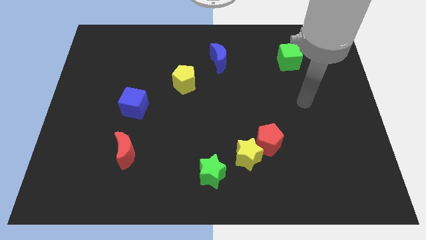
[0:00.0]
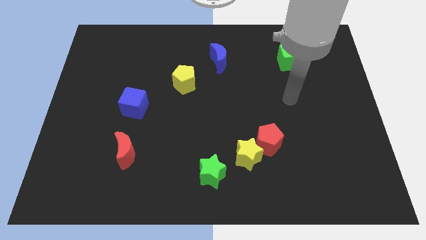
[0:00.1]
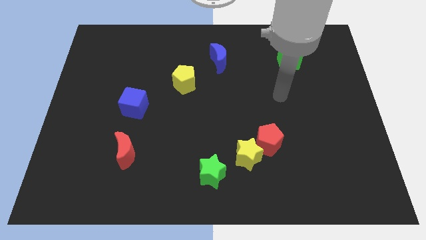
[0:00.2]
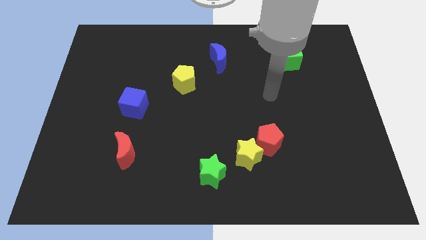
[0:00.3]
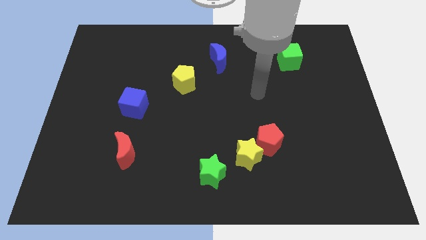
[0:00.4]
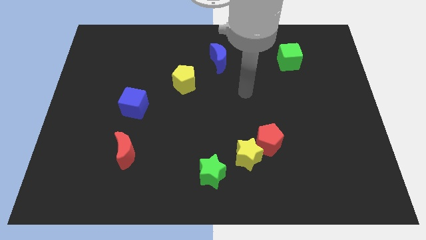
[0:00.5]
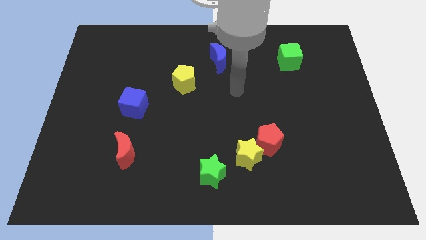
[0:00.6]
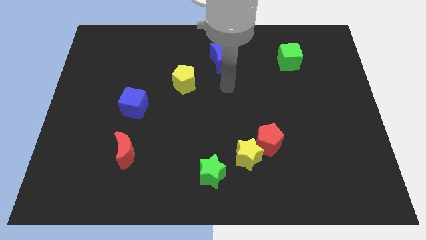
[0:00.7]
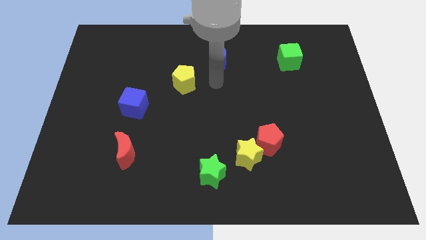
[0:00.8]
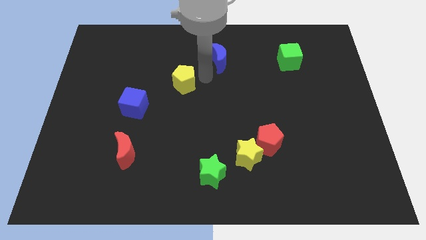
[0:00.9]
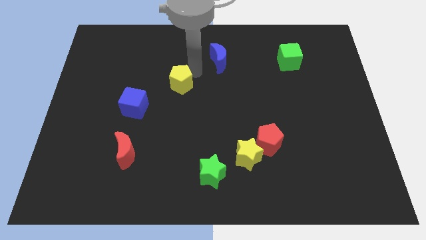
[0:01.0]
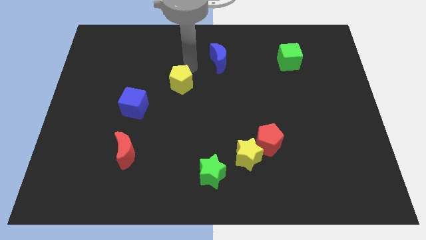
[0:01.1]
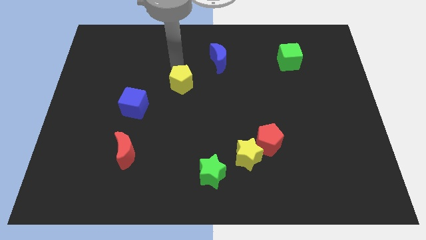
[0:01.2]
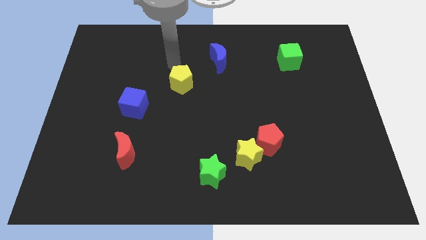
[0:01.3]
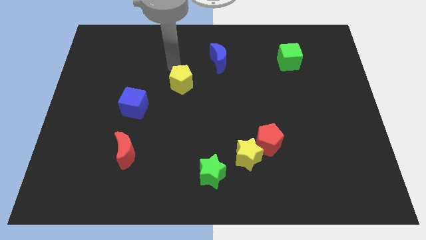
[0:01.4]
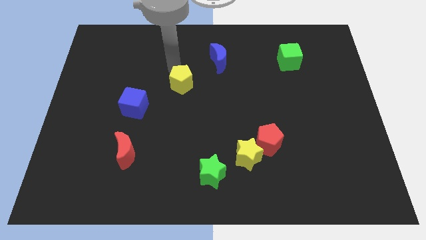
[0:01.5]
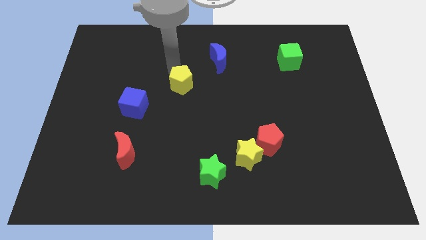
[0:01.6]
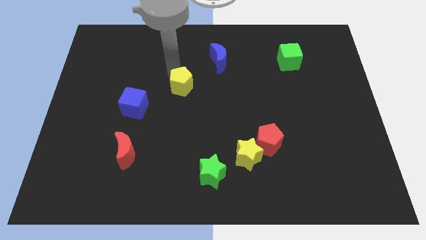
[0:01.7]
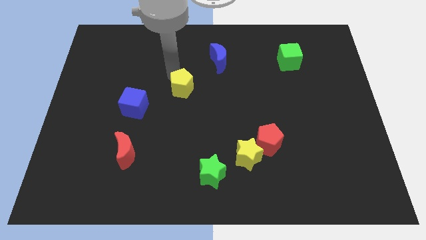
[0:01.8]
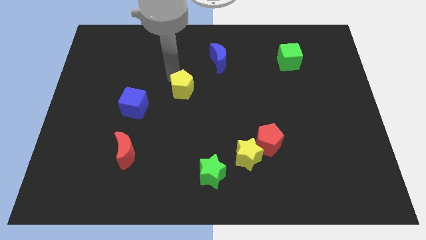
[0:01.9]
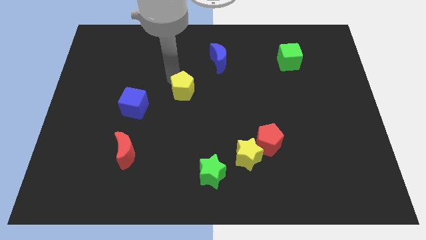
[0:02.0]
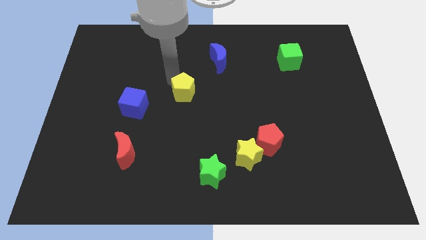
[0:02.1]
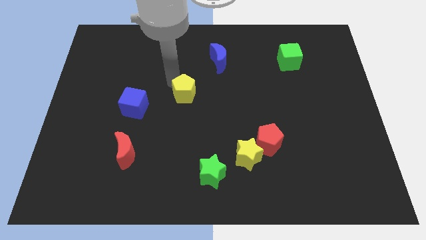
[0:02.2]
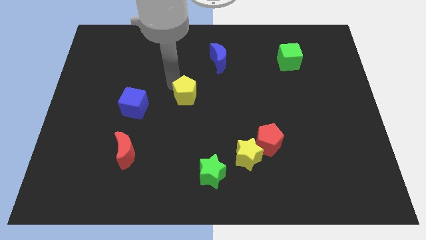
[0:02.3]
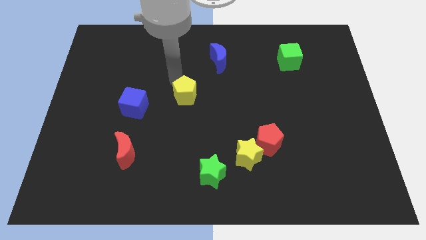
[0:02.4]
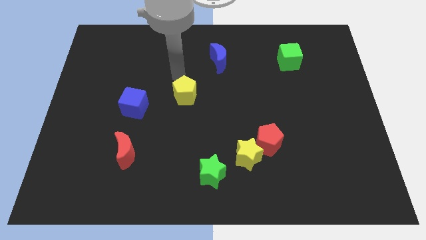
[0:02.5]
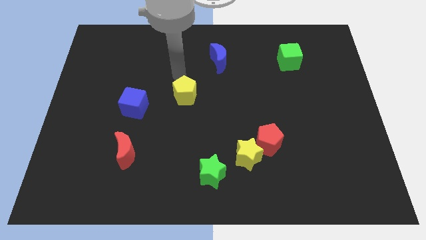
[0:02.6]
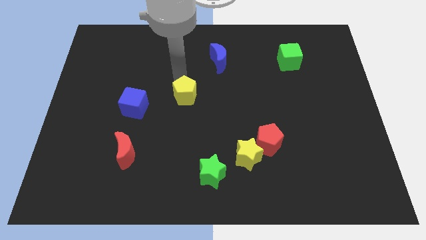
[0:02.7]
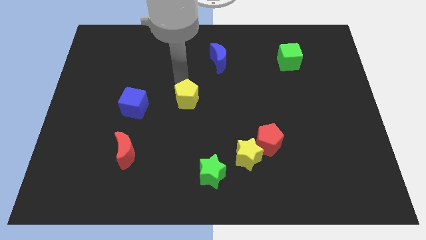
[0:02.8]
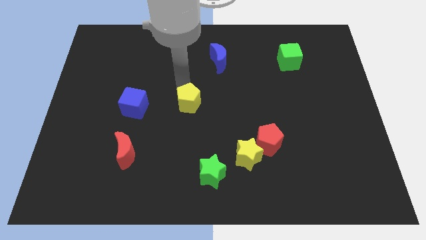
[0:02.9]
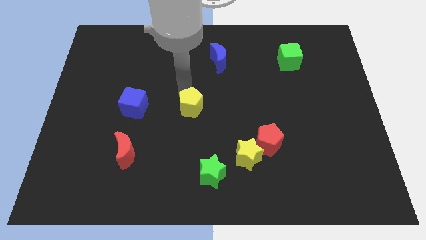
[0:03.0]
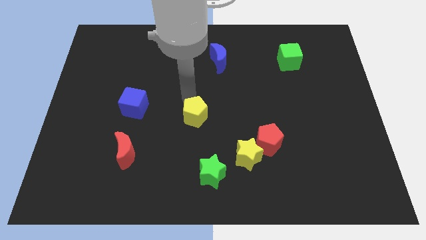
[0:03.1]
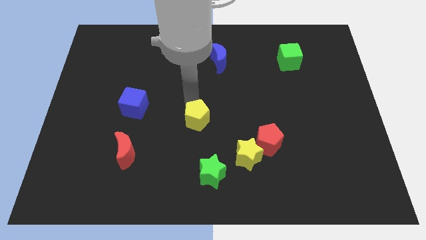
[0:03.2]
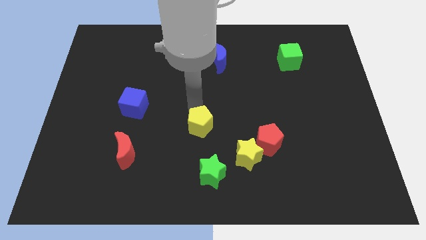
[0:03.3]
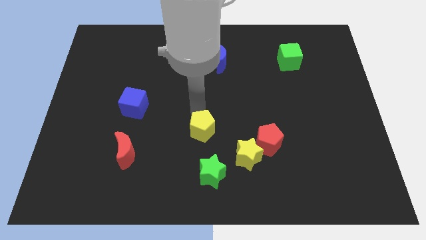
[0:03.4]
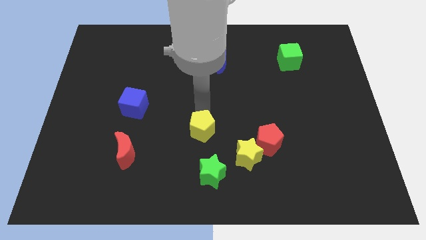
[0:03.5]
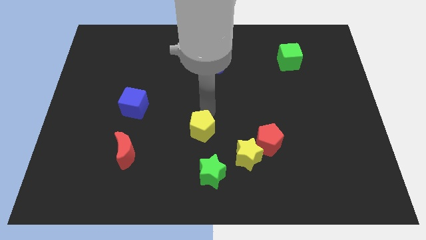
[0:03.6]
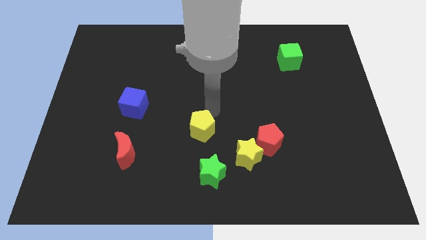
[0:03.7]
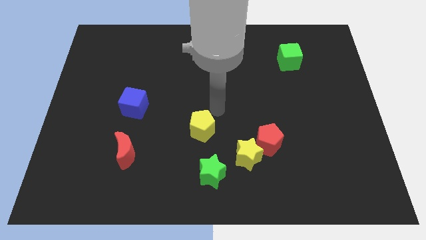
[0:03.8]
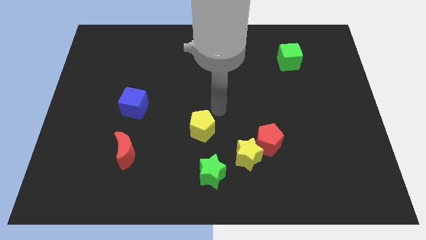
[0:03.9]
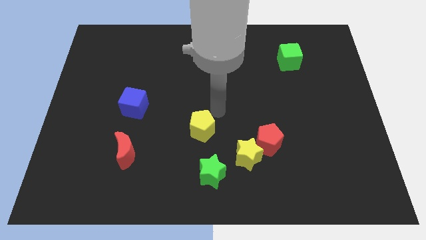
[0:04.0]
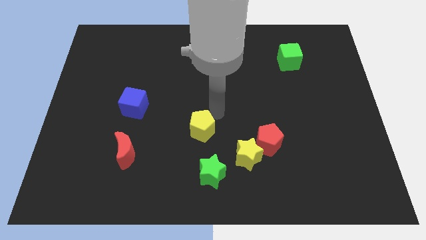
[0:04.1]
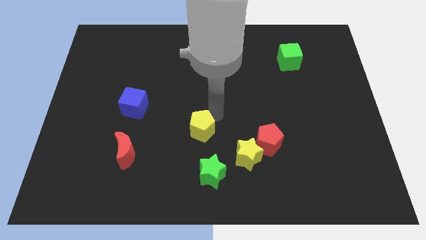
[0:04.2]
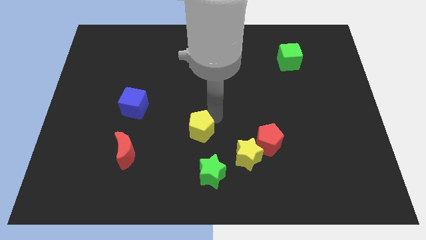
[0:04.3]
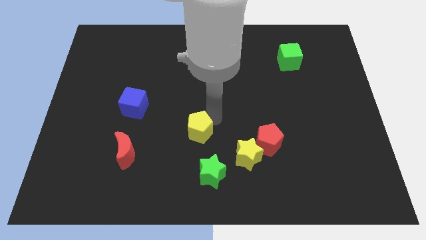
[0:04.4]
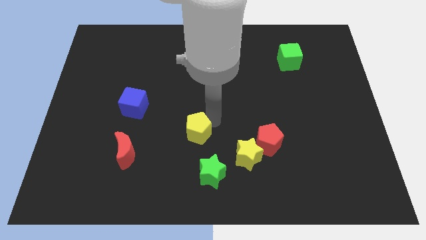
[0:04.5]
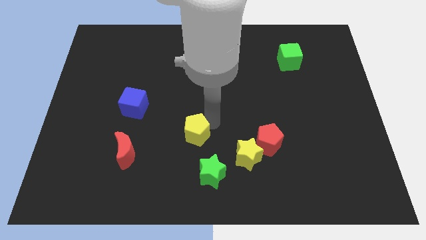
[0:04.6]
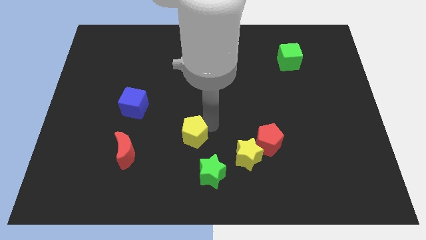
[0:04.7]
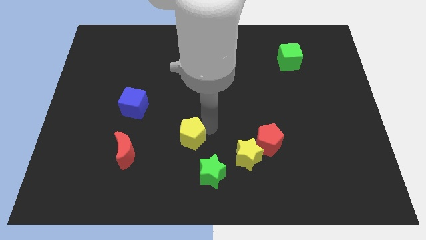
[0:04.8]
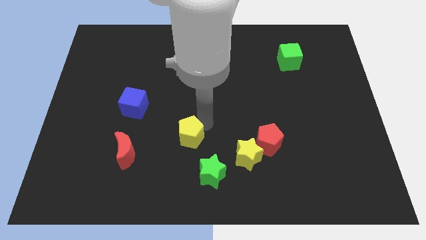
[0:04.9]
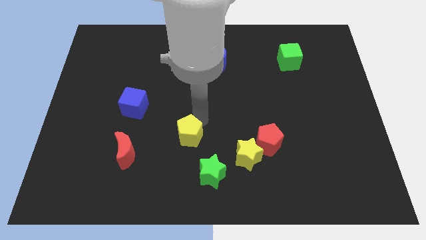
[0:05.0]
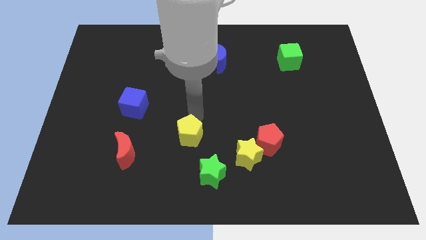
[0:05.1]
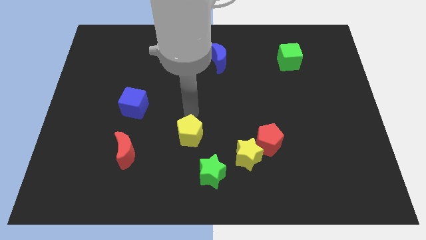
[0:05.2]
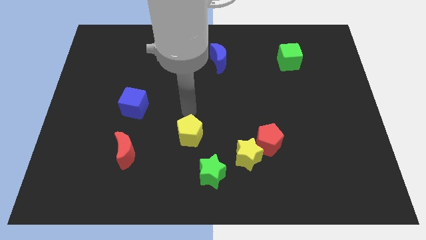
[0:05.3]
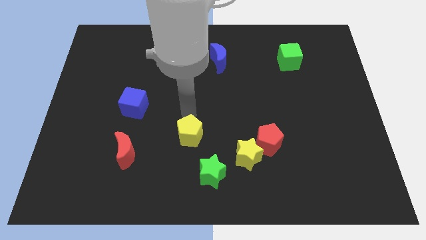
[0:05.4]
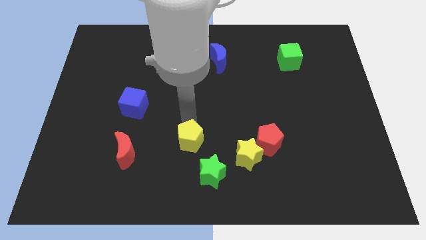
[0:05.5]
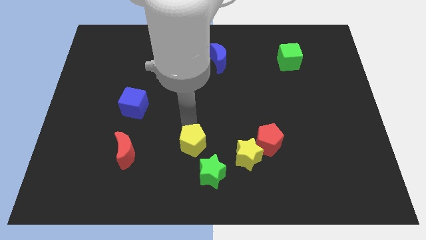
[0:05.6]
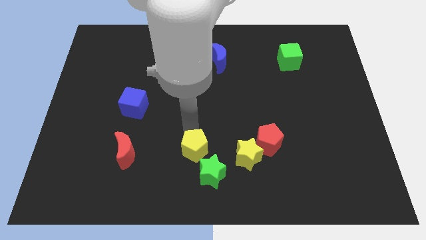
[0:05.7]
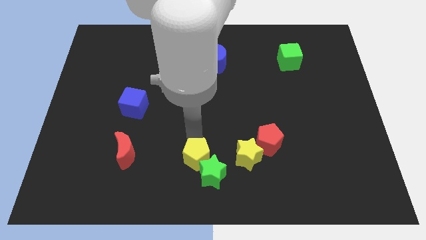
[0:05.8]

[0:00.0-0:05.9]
move the yellow pentagon to the bottom

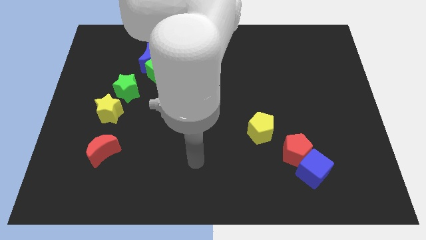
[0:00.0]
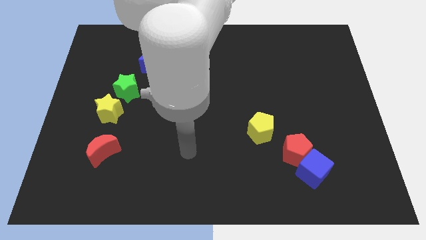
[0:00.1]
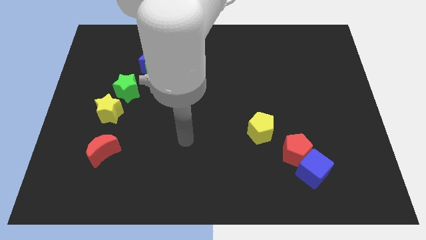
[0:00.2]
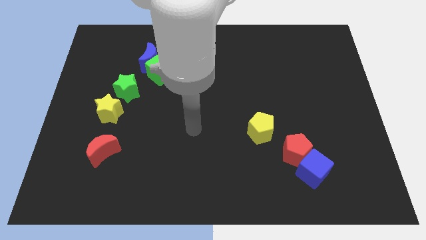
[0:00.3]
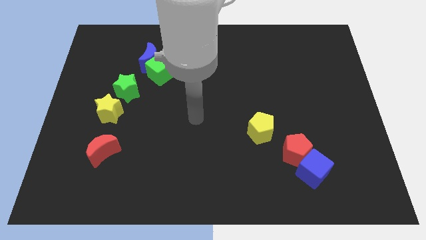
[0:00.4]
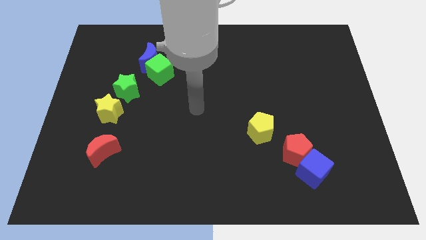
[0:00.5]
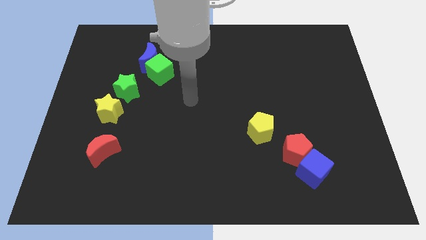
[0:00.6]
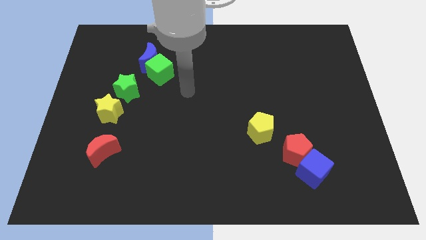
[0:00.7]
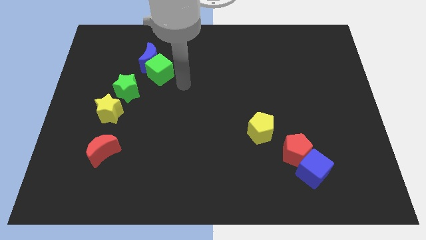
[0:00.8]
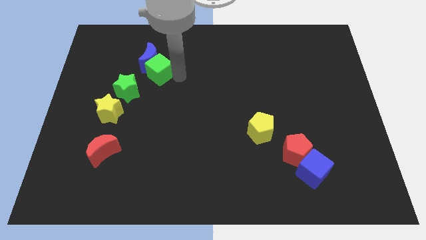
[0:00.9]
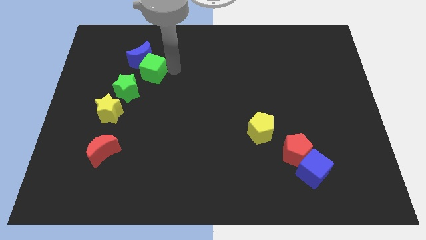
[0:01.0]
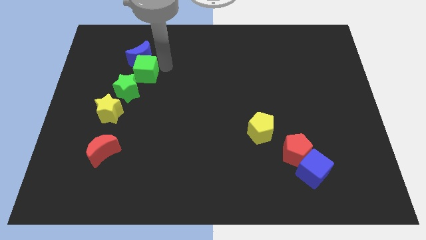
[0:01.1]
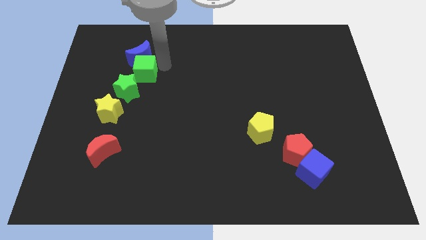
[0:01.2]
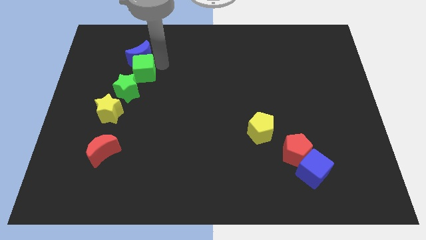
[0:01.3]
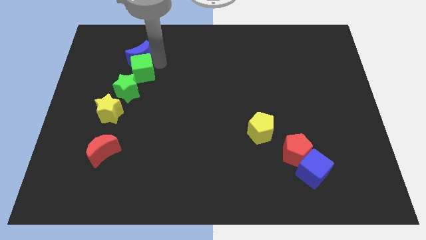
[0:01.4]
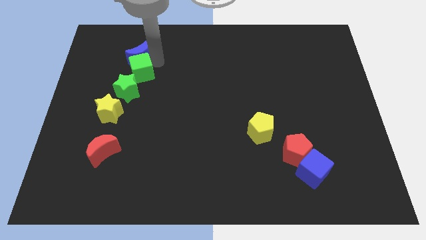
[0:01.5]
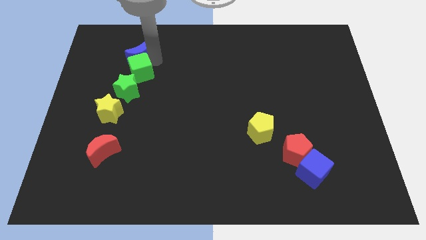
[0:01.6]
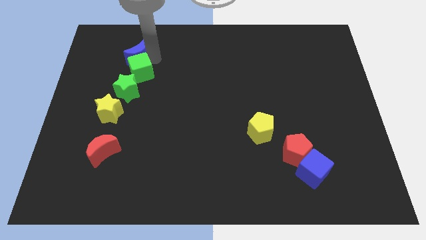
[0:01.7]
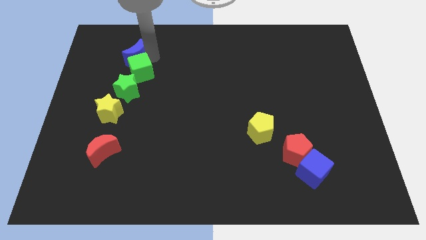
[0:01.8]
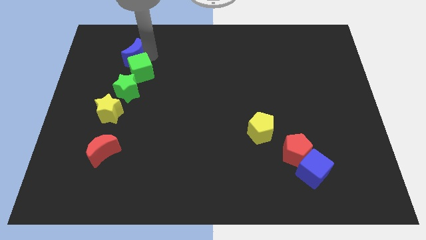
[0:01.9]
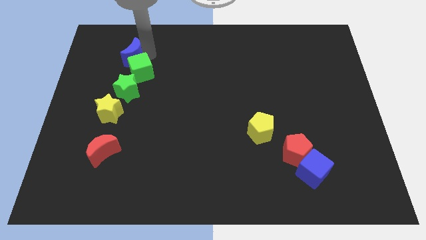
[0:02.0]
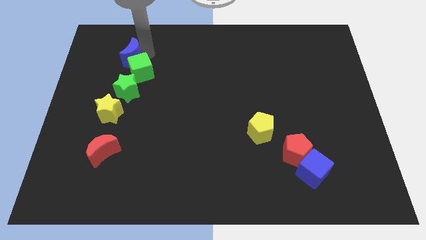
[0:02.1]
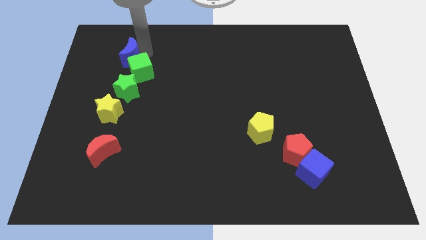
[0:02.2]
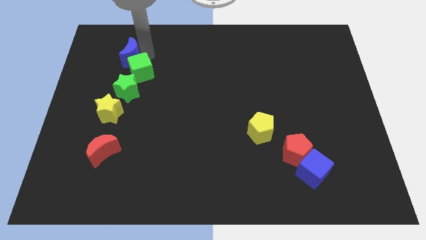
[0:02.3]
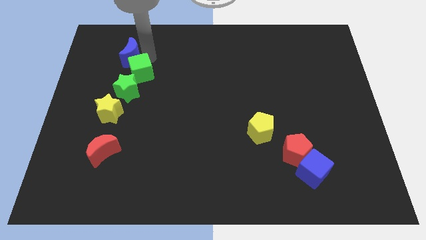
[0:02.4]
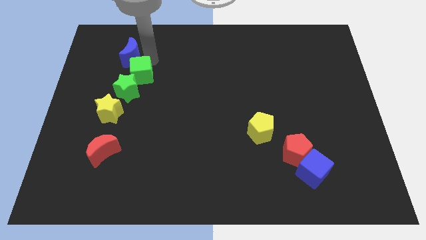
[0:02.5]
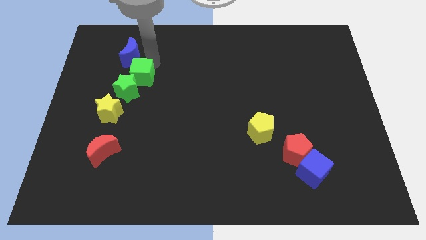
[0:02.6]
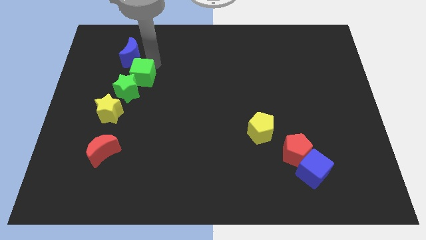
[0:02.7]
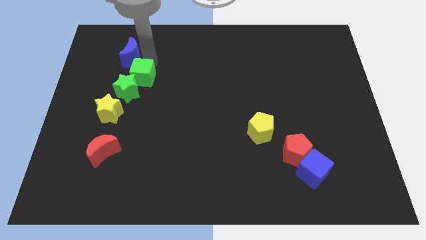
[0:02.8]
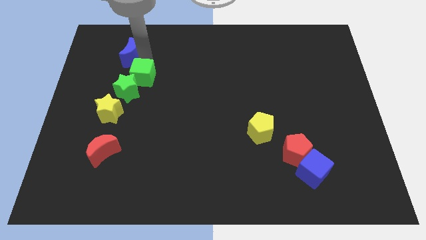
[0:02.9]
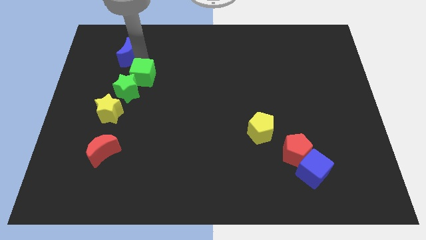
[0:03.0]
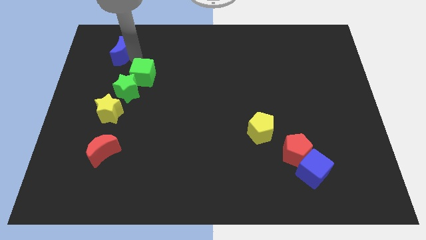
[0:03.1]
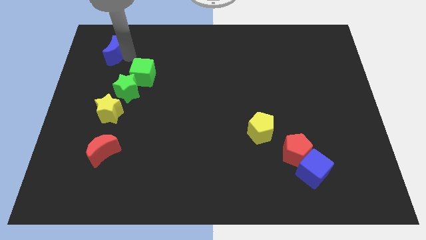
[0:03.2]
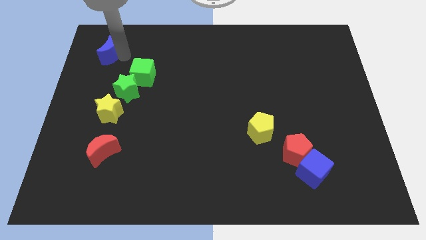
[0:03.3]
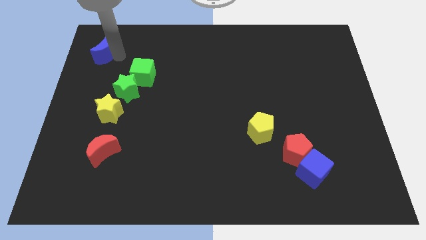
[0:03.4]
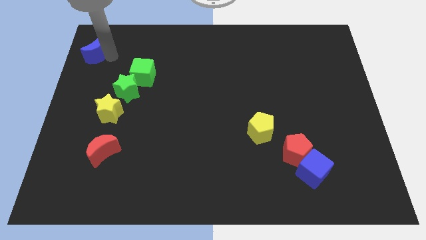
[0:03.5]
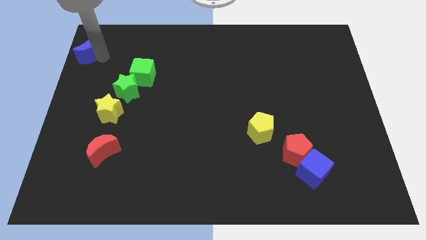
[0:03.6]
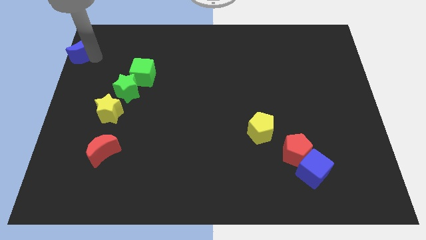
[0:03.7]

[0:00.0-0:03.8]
push the blue moon to the top left corner
